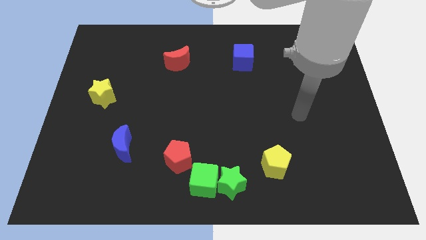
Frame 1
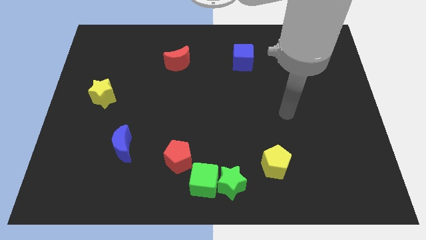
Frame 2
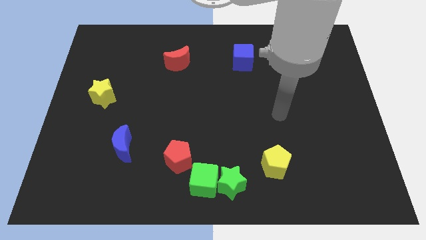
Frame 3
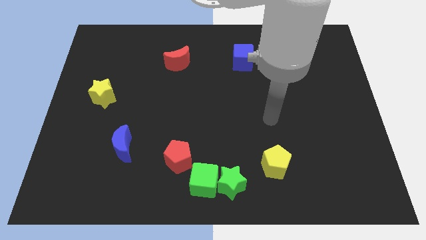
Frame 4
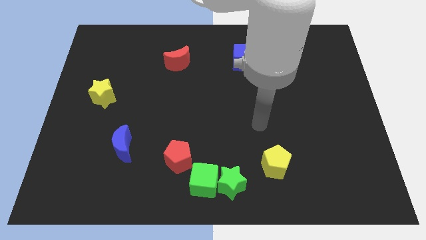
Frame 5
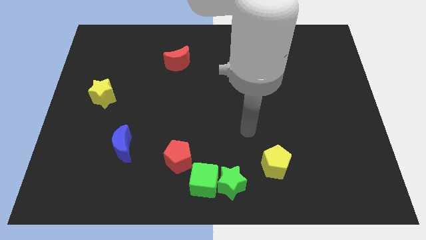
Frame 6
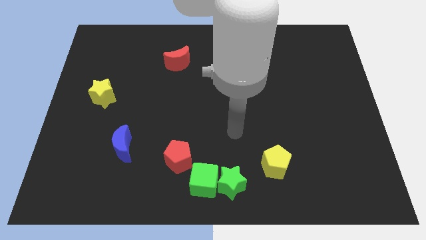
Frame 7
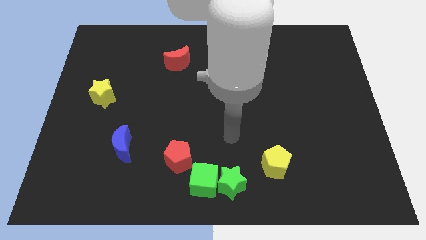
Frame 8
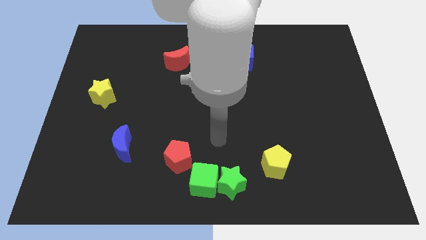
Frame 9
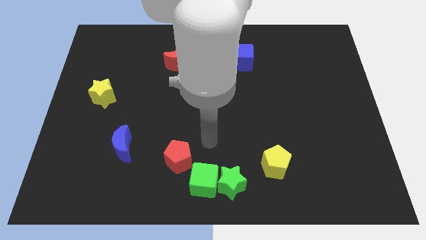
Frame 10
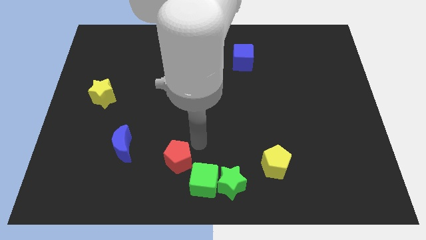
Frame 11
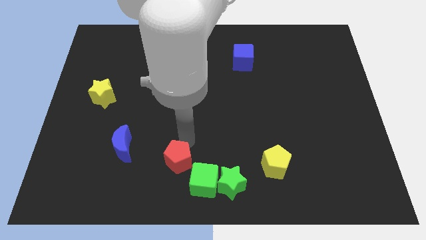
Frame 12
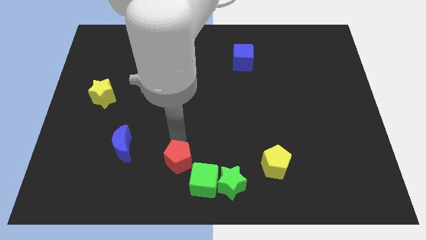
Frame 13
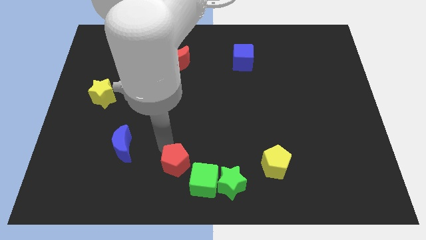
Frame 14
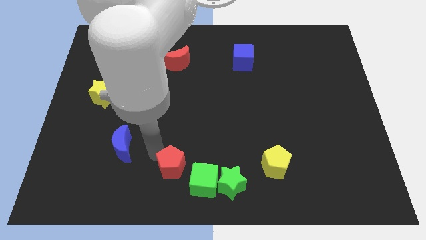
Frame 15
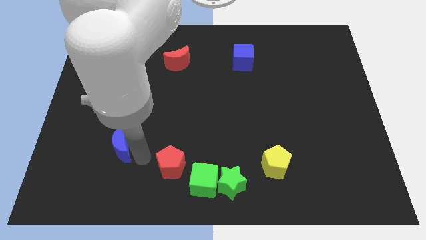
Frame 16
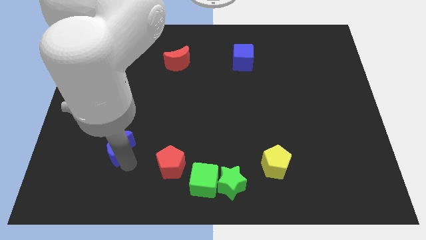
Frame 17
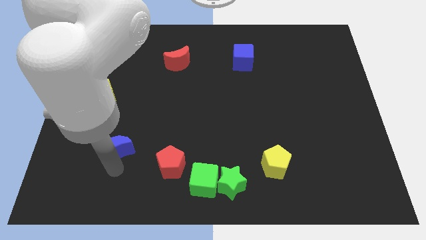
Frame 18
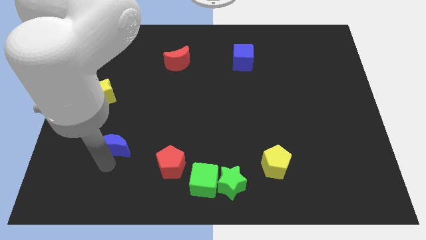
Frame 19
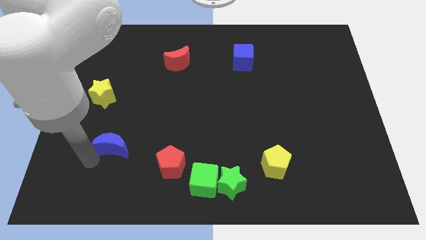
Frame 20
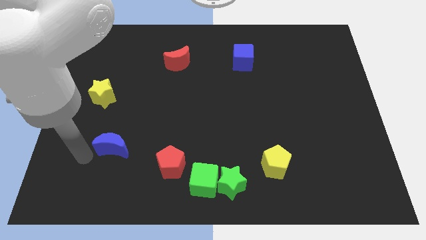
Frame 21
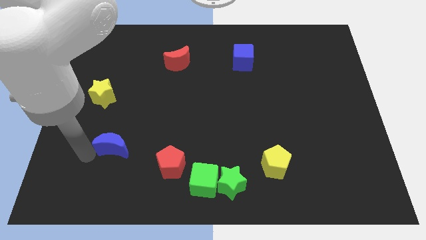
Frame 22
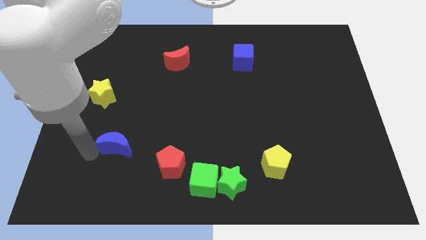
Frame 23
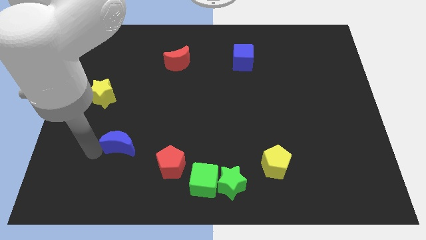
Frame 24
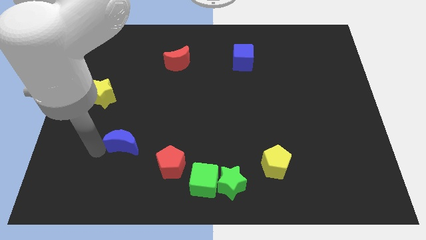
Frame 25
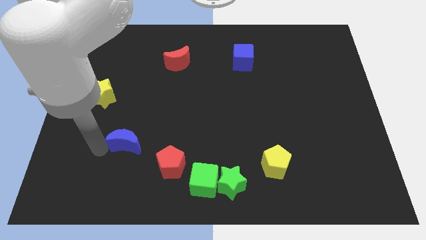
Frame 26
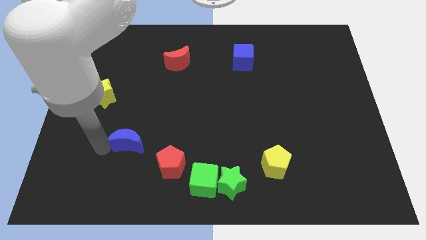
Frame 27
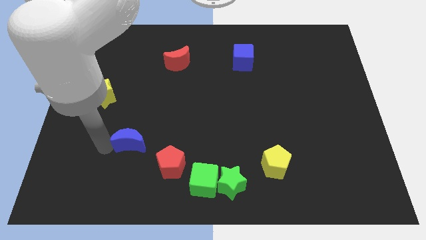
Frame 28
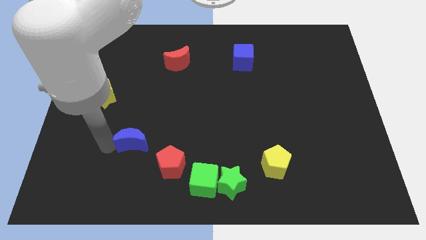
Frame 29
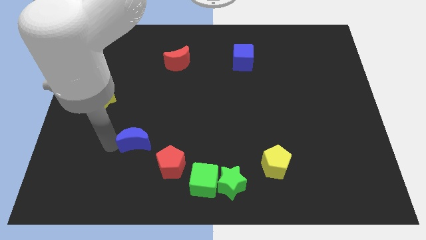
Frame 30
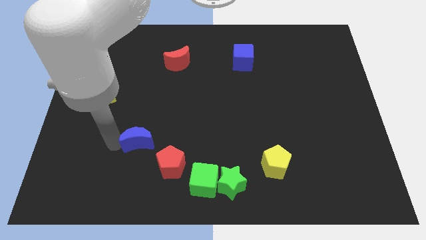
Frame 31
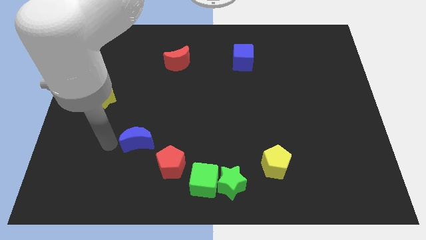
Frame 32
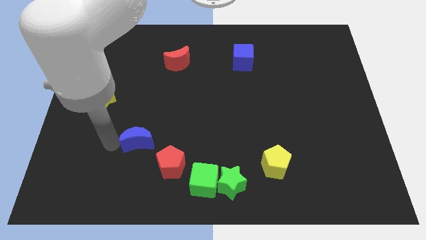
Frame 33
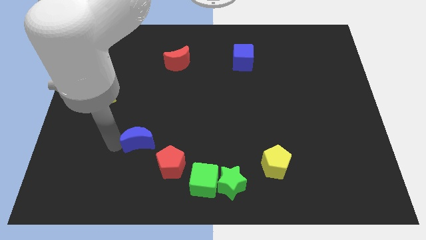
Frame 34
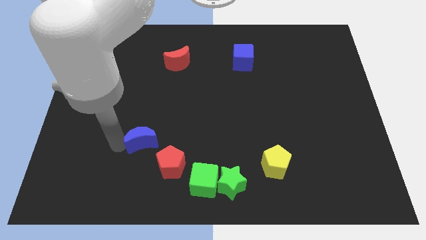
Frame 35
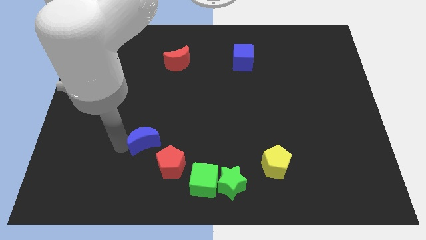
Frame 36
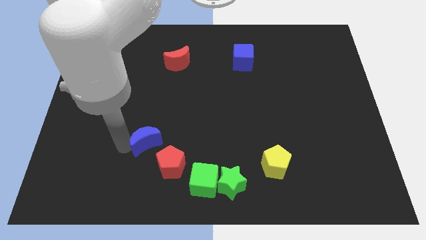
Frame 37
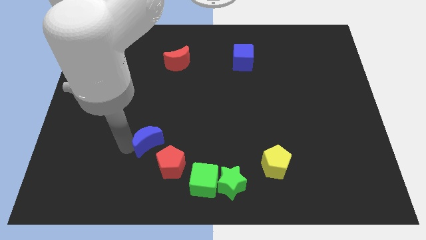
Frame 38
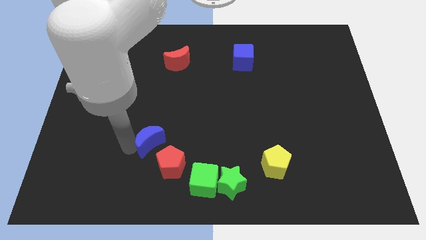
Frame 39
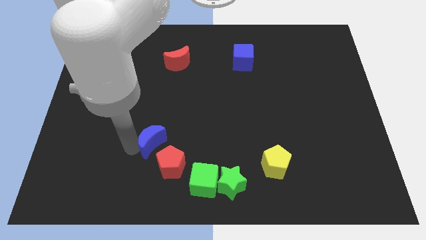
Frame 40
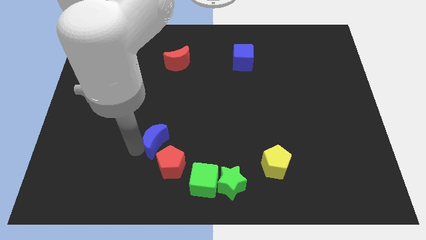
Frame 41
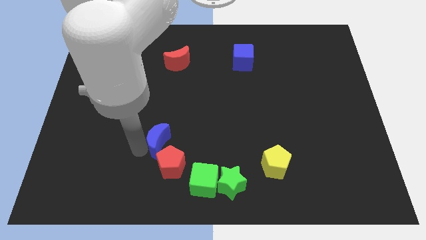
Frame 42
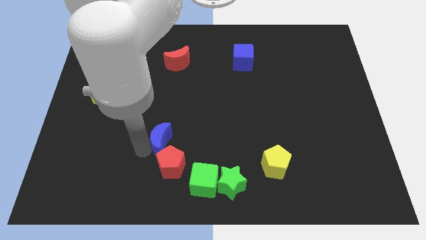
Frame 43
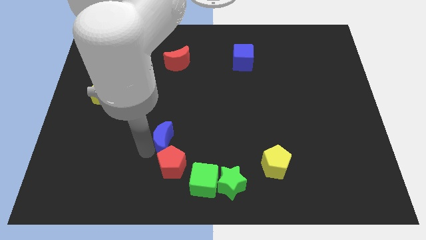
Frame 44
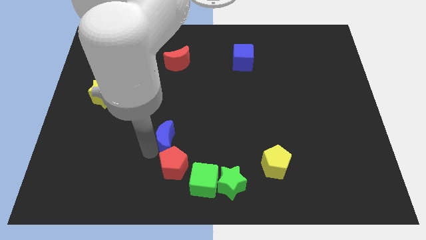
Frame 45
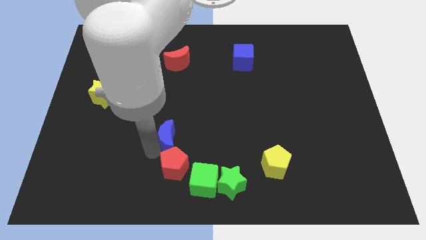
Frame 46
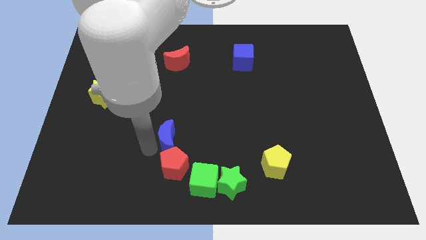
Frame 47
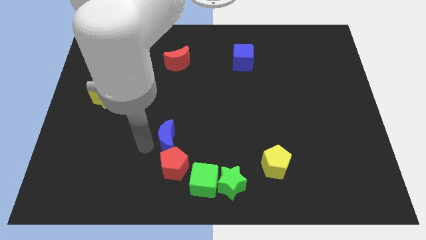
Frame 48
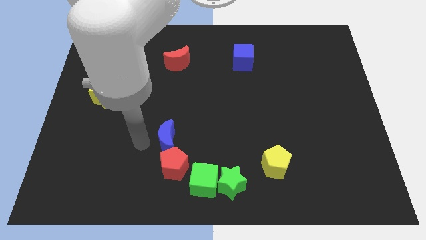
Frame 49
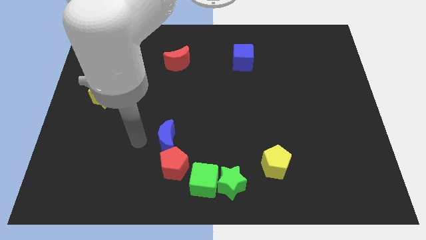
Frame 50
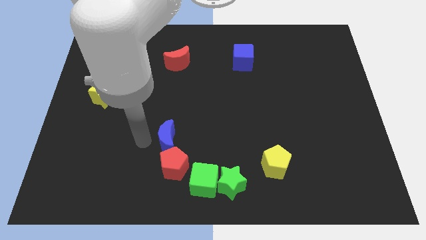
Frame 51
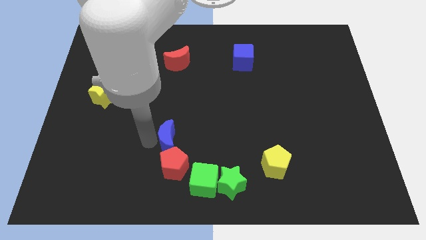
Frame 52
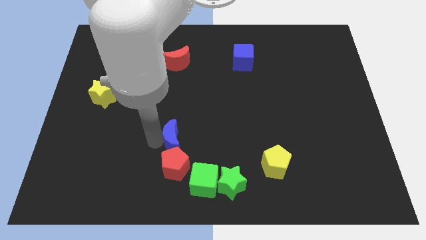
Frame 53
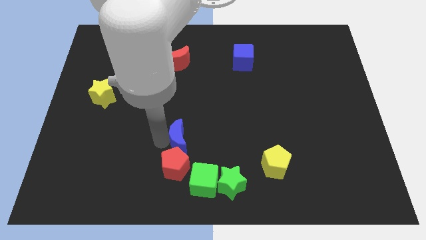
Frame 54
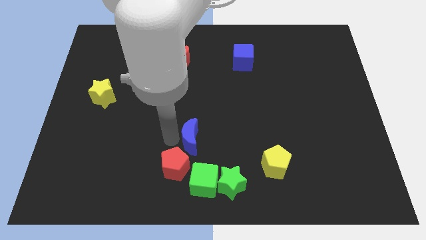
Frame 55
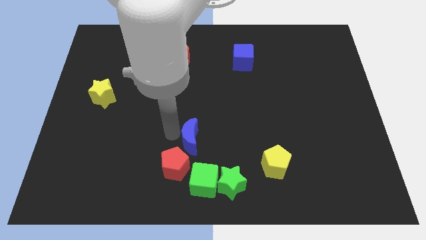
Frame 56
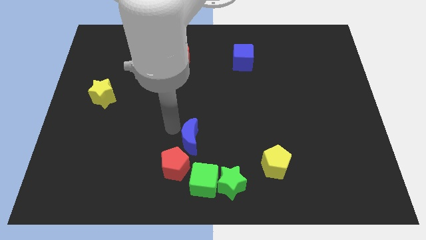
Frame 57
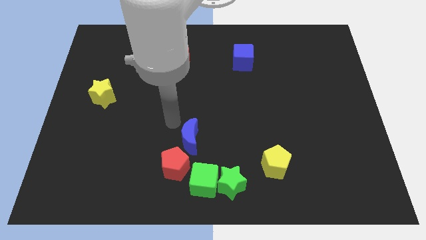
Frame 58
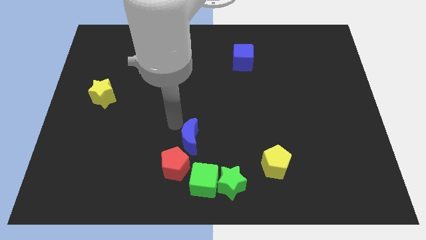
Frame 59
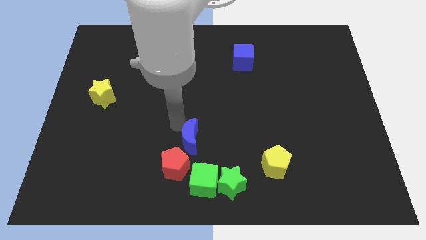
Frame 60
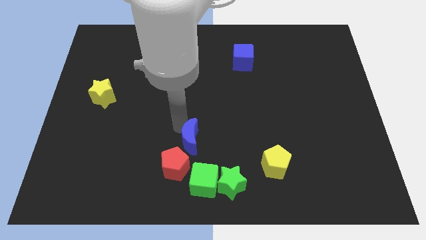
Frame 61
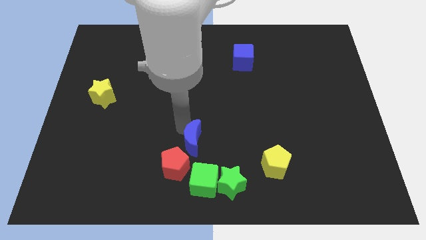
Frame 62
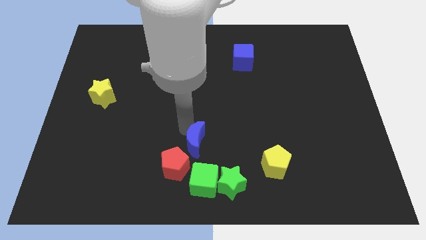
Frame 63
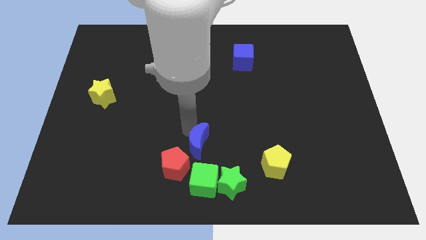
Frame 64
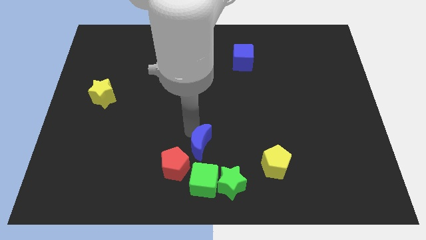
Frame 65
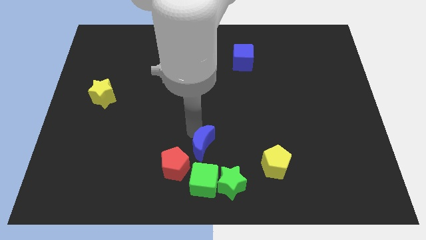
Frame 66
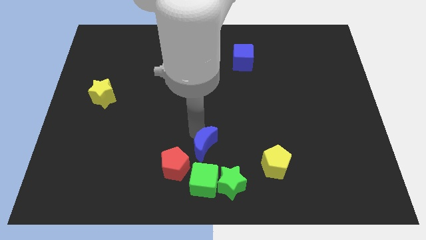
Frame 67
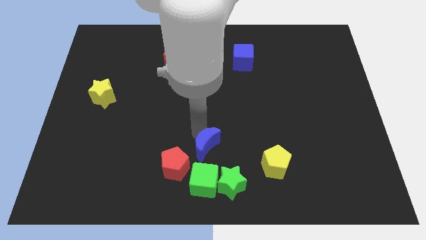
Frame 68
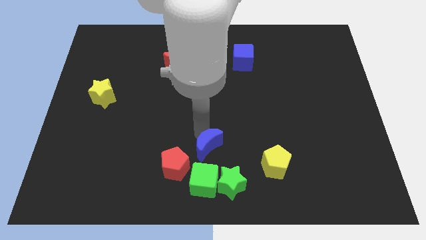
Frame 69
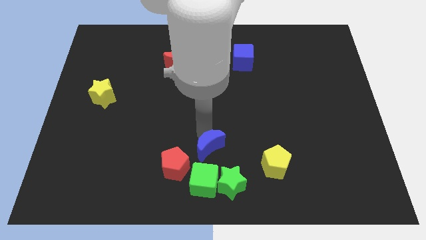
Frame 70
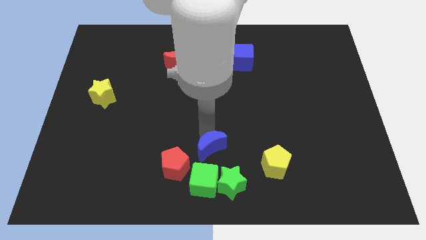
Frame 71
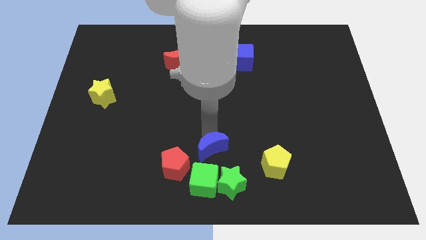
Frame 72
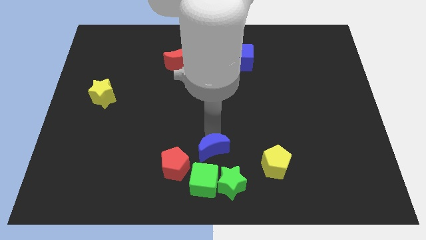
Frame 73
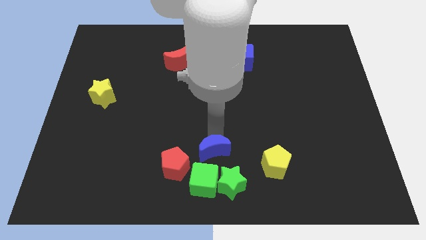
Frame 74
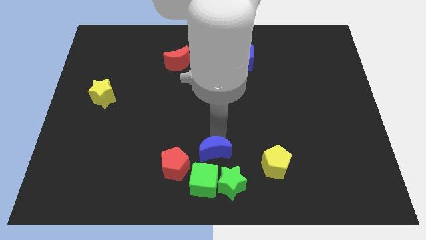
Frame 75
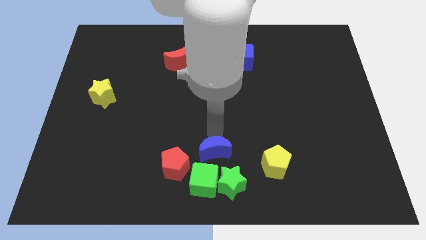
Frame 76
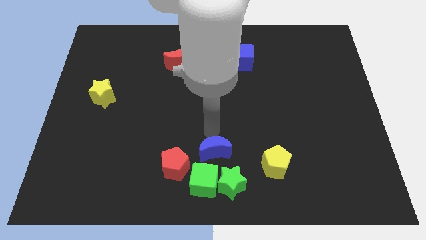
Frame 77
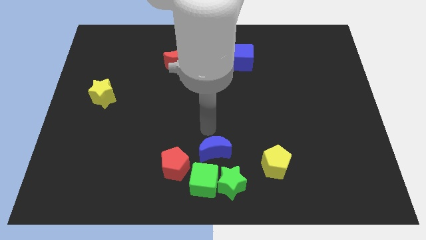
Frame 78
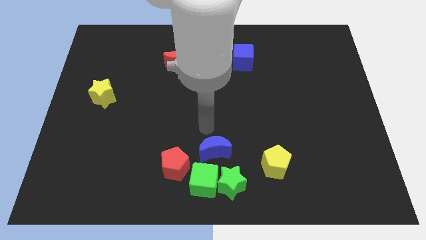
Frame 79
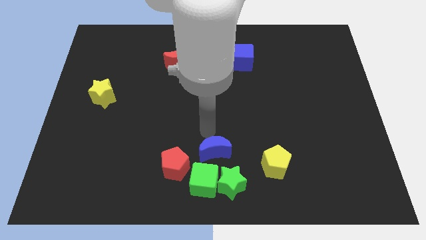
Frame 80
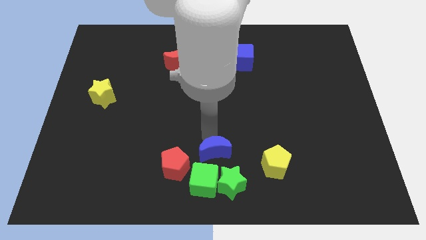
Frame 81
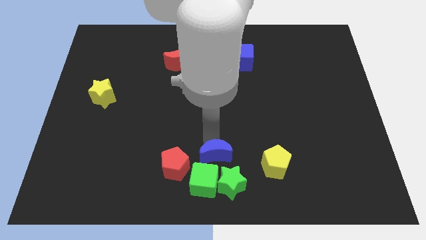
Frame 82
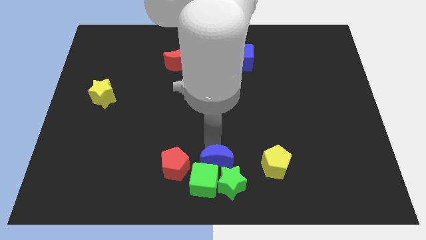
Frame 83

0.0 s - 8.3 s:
slide the blue moon next to the green star

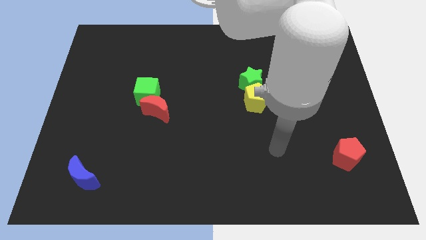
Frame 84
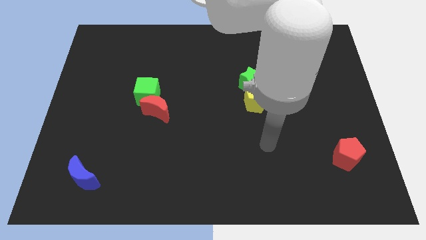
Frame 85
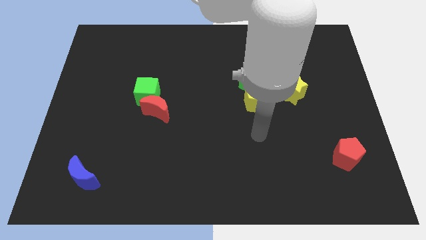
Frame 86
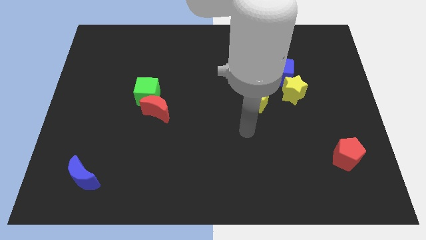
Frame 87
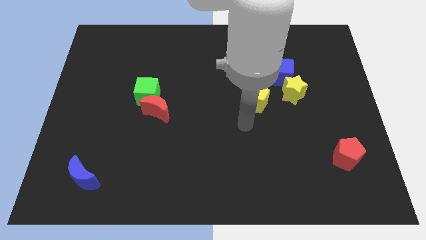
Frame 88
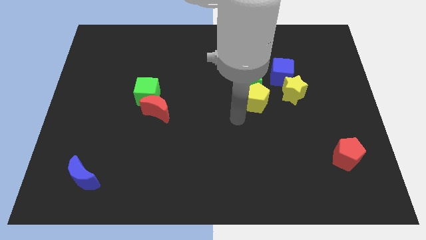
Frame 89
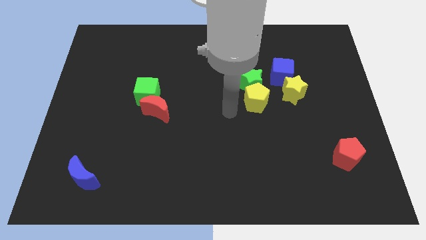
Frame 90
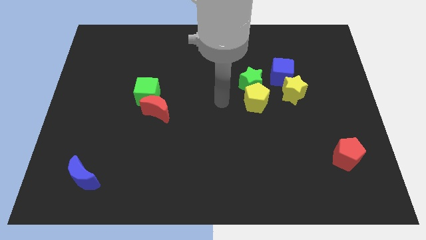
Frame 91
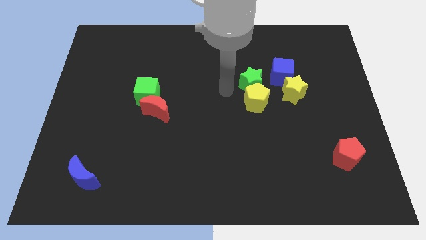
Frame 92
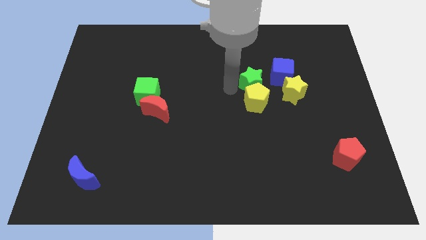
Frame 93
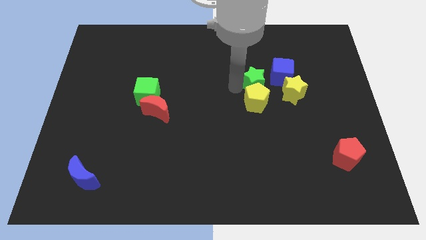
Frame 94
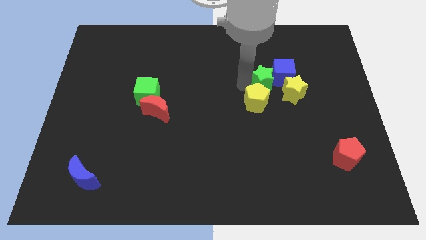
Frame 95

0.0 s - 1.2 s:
slide the green star close to the blue cube
